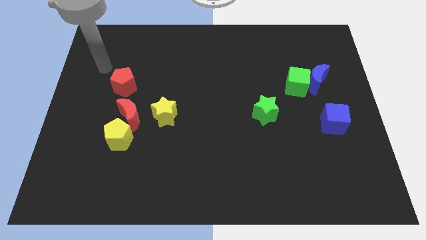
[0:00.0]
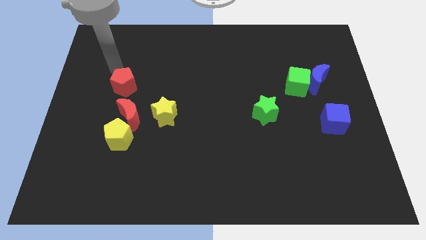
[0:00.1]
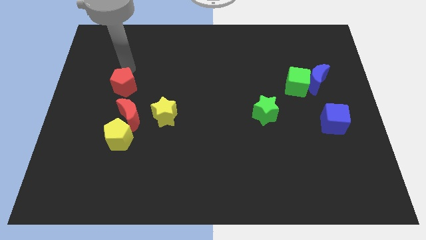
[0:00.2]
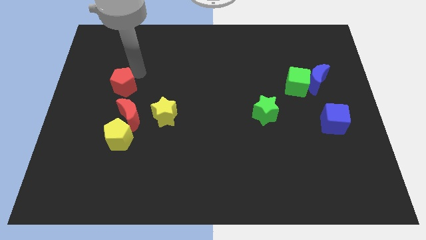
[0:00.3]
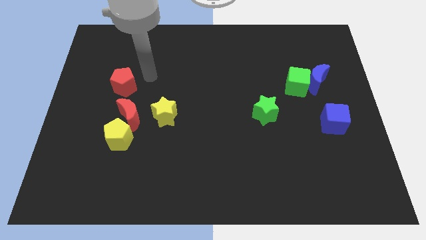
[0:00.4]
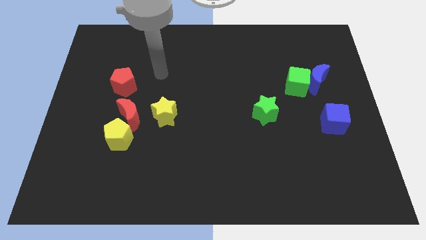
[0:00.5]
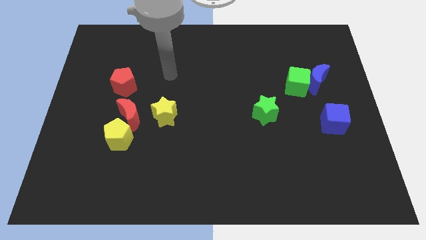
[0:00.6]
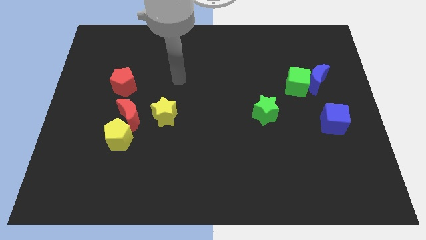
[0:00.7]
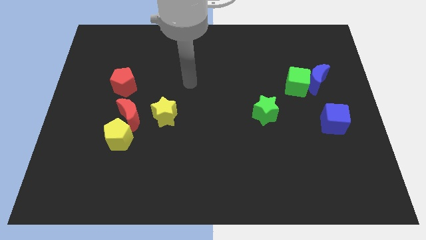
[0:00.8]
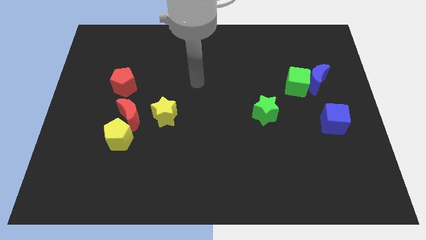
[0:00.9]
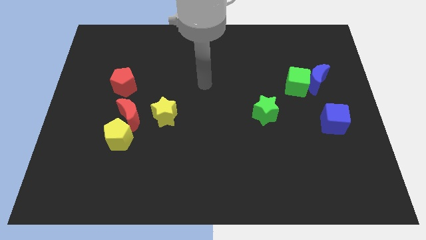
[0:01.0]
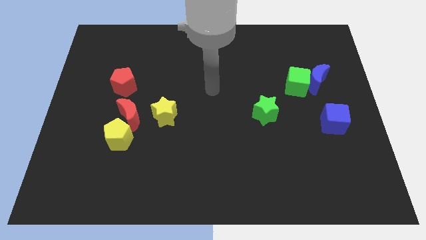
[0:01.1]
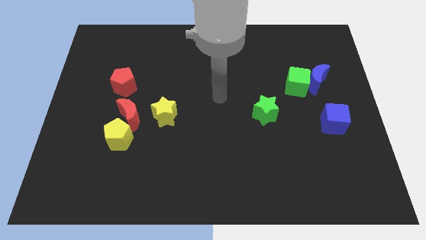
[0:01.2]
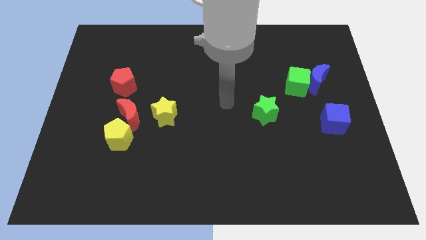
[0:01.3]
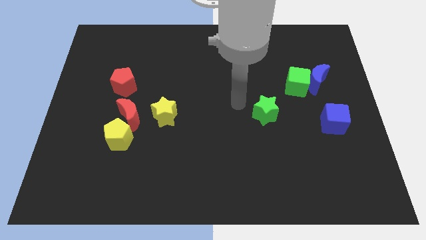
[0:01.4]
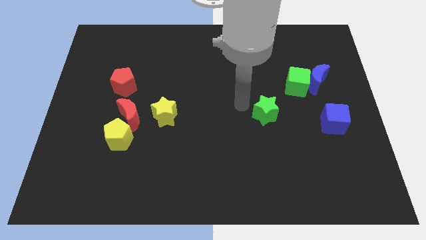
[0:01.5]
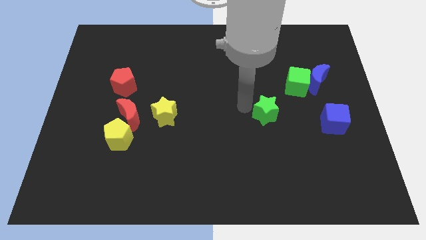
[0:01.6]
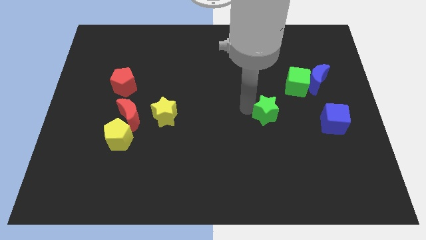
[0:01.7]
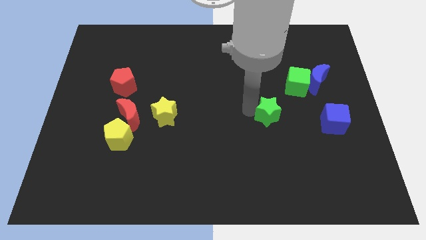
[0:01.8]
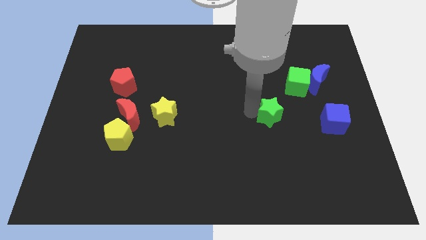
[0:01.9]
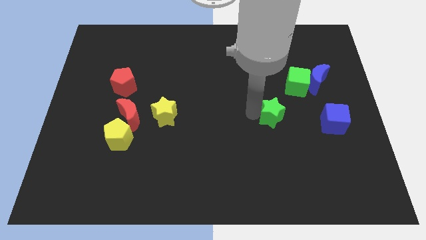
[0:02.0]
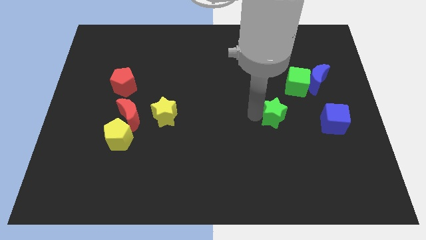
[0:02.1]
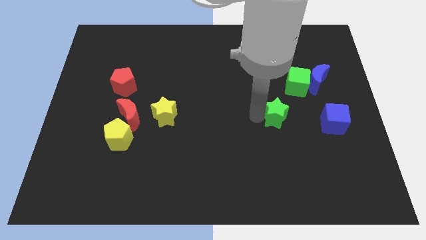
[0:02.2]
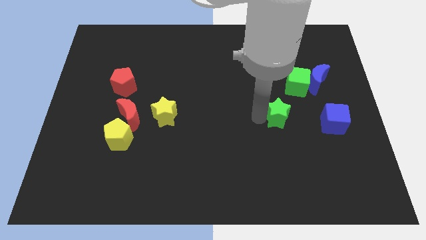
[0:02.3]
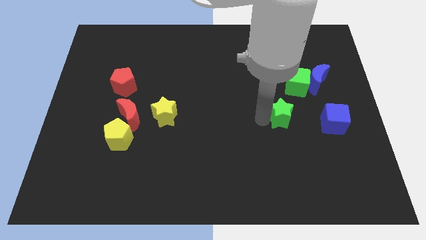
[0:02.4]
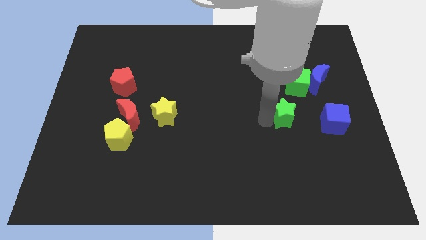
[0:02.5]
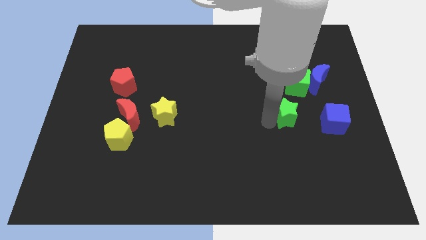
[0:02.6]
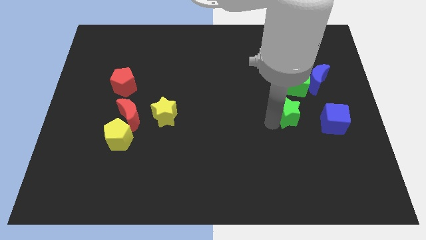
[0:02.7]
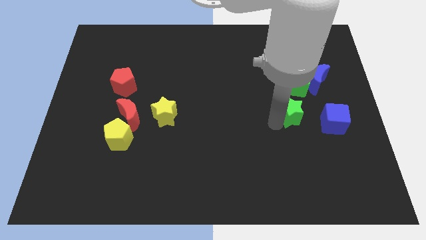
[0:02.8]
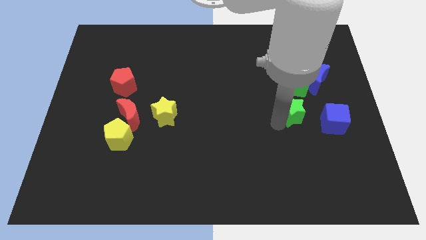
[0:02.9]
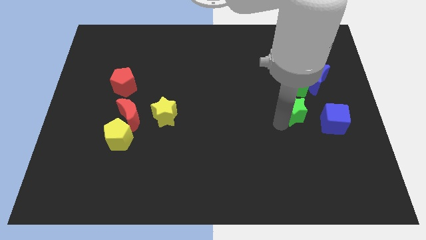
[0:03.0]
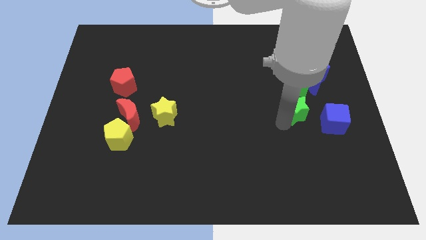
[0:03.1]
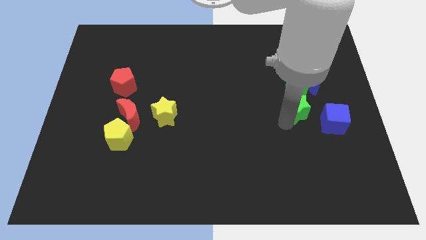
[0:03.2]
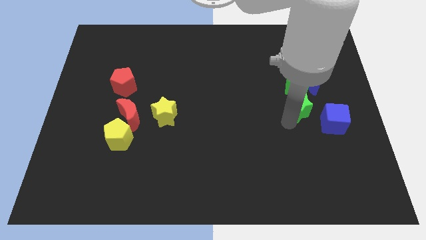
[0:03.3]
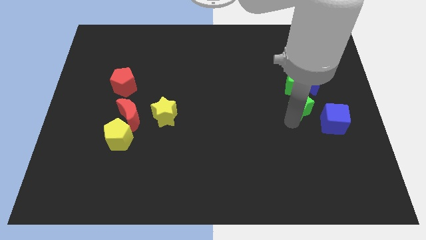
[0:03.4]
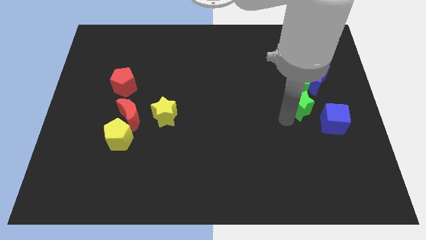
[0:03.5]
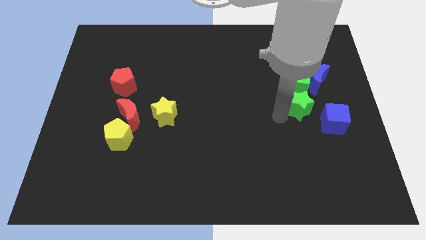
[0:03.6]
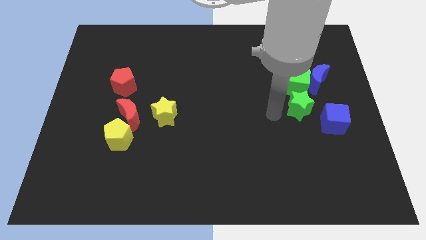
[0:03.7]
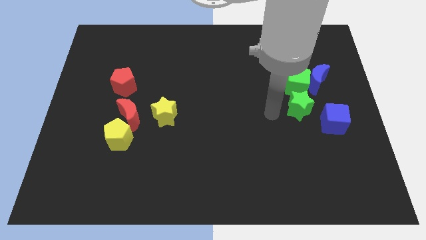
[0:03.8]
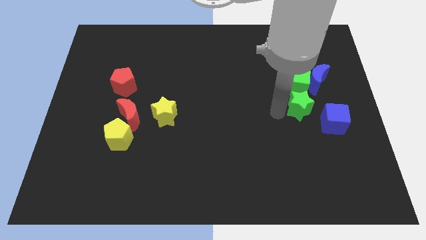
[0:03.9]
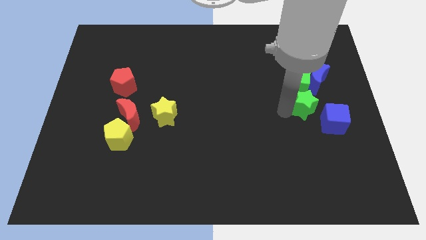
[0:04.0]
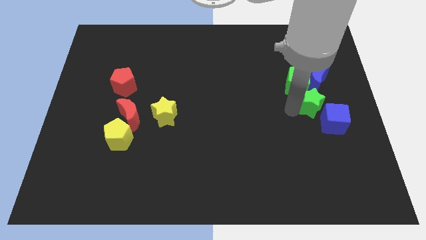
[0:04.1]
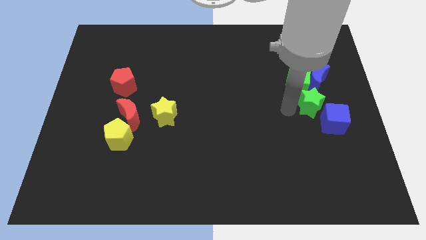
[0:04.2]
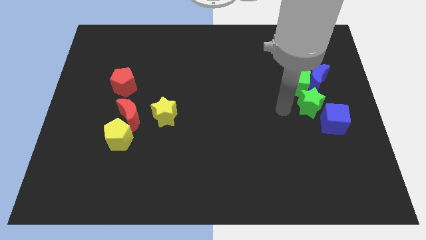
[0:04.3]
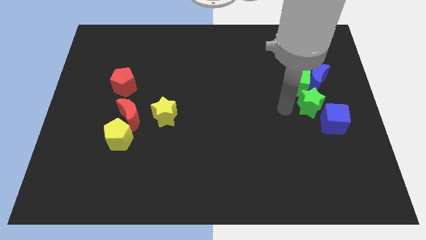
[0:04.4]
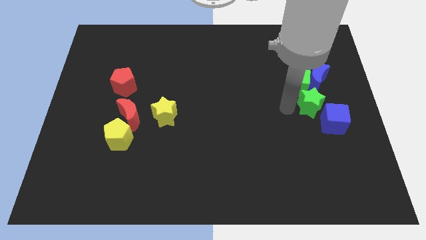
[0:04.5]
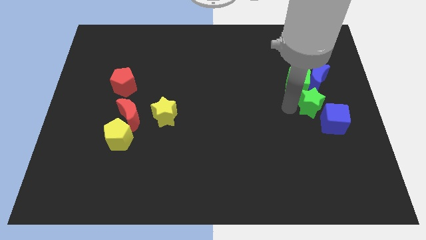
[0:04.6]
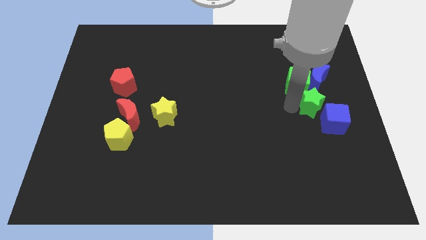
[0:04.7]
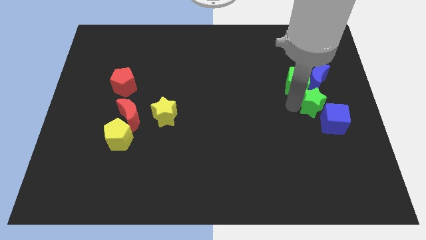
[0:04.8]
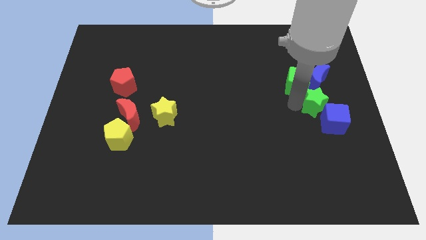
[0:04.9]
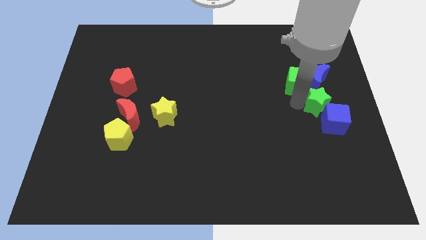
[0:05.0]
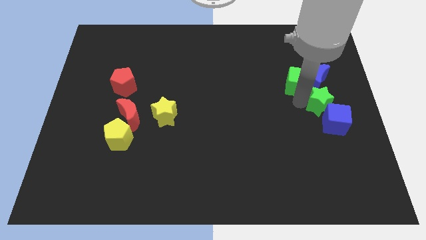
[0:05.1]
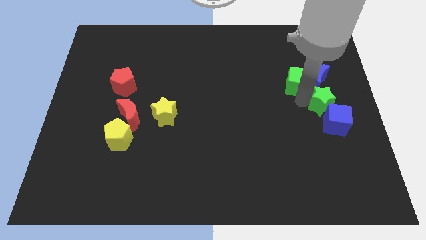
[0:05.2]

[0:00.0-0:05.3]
put the green star to the right side

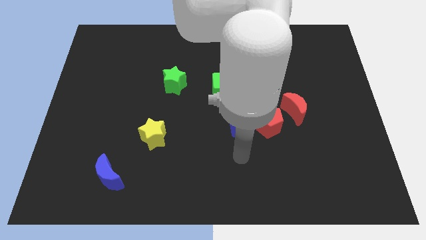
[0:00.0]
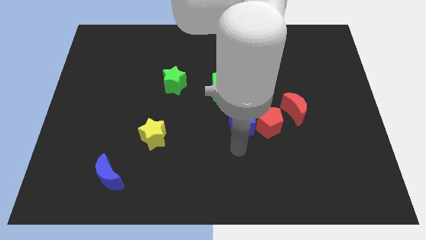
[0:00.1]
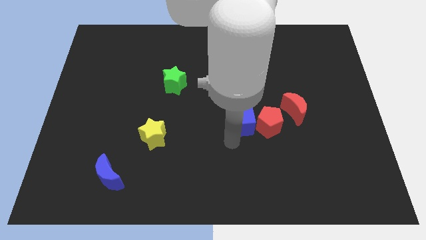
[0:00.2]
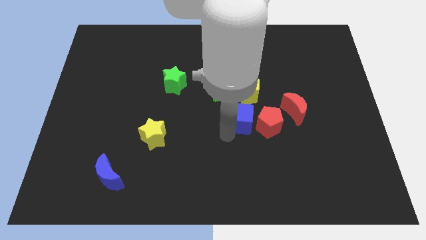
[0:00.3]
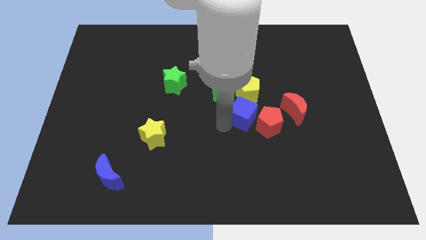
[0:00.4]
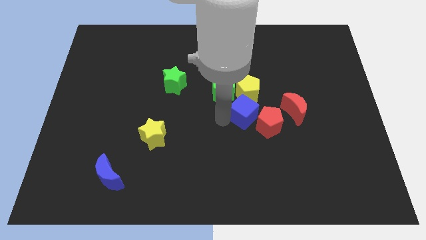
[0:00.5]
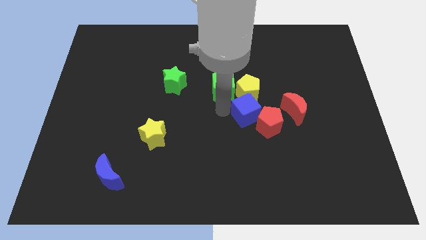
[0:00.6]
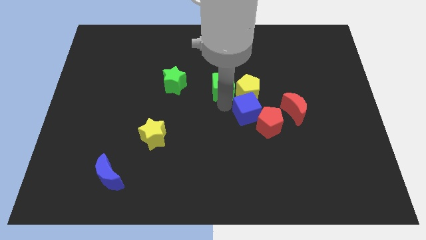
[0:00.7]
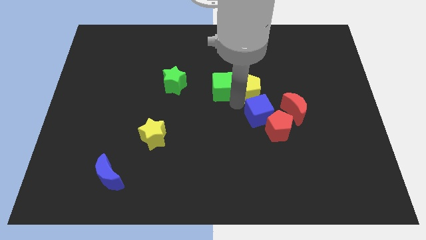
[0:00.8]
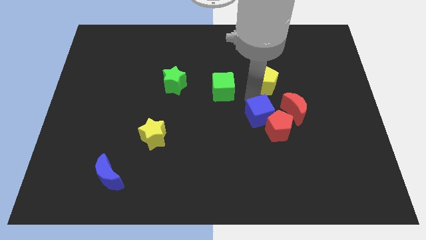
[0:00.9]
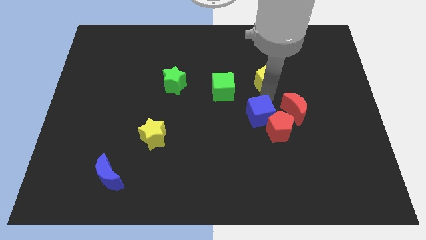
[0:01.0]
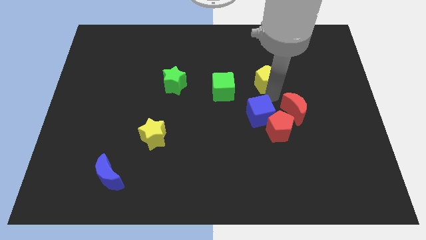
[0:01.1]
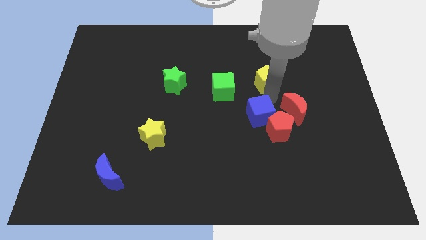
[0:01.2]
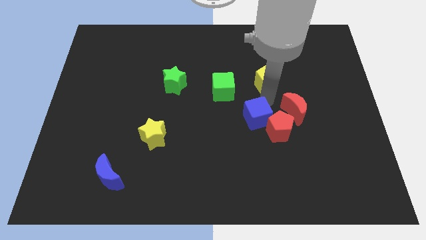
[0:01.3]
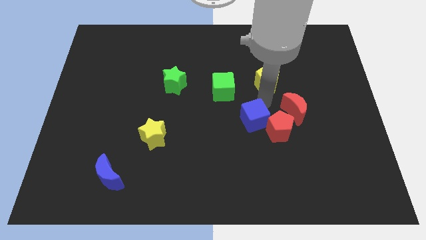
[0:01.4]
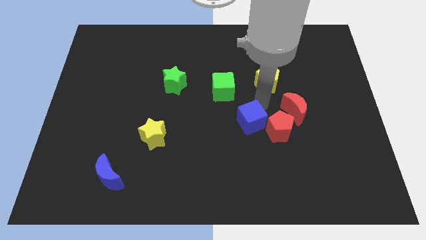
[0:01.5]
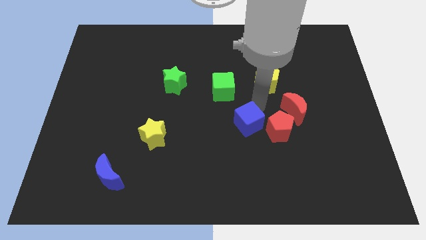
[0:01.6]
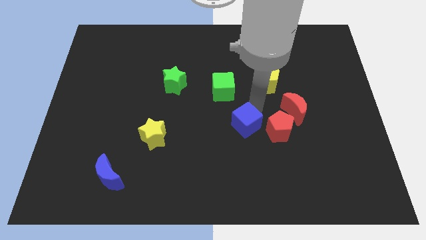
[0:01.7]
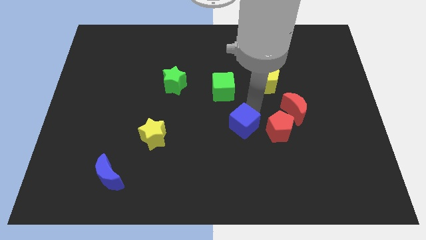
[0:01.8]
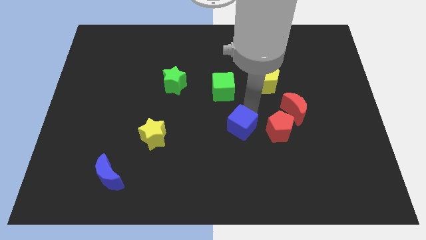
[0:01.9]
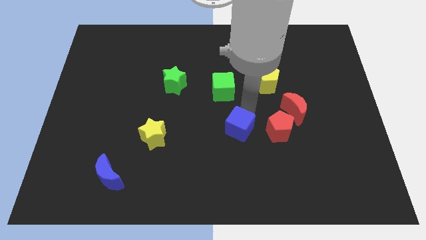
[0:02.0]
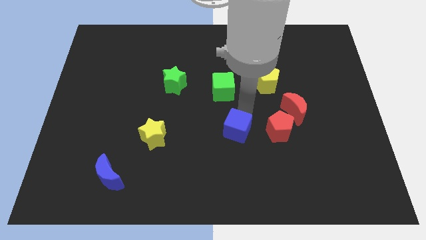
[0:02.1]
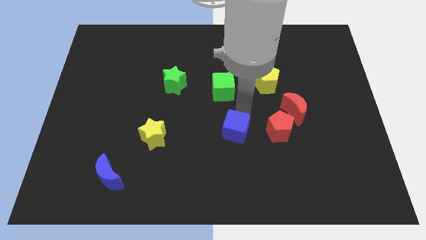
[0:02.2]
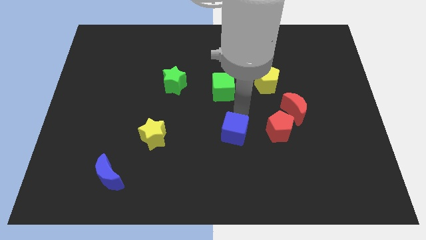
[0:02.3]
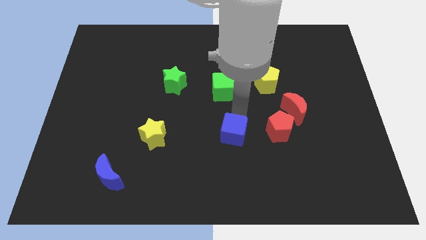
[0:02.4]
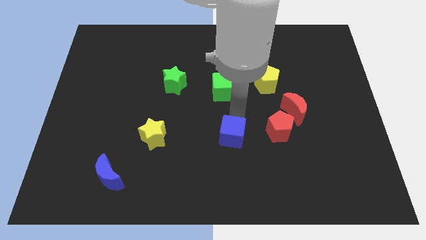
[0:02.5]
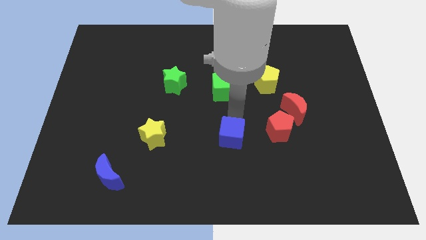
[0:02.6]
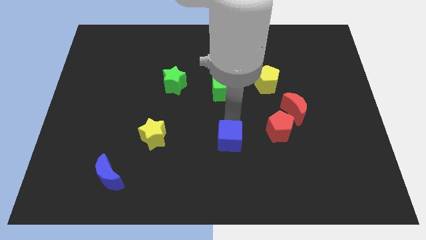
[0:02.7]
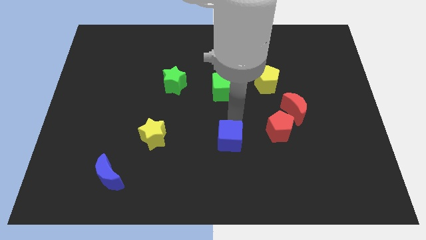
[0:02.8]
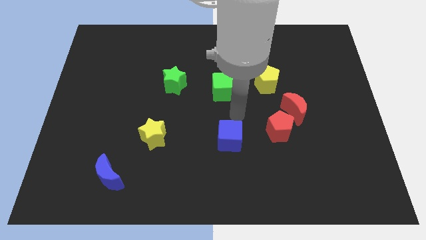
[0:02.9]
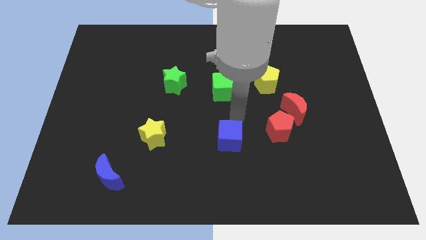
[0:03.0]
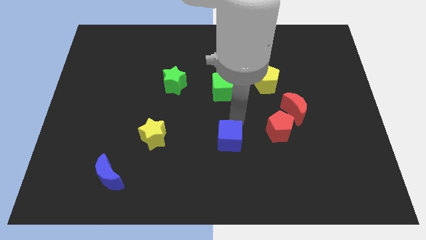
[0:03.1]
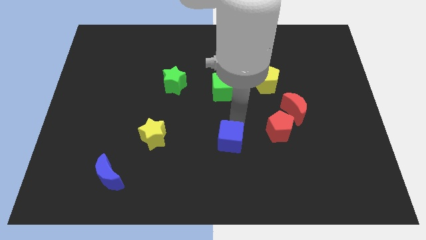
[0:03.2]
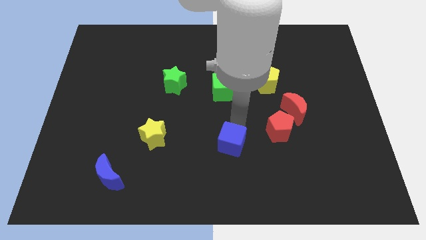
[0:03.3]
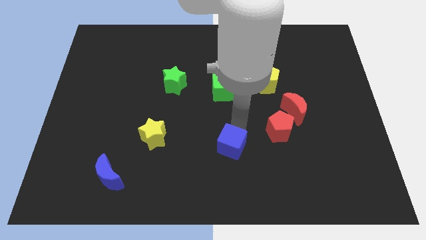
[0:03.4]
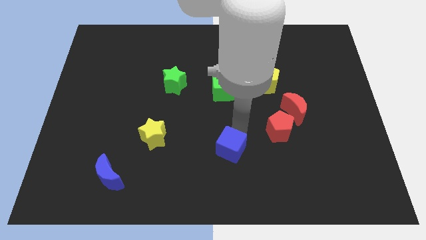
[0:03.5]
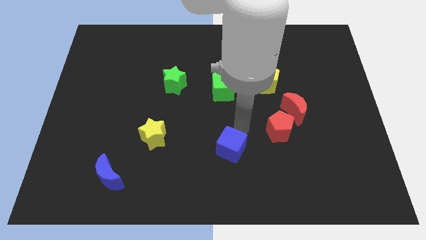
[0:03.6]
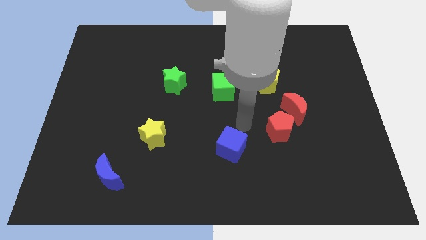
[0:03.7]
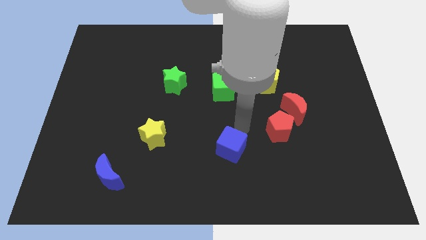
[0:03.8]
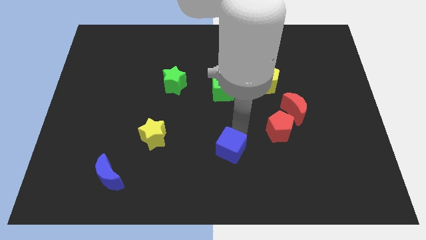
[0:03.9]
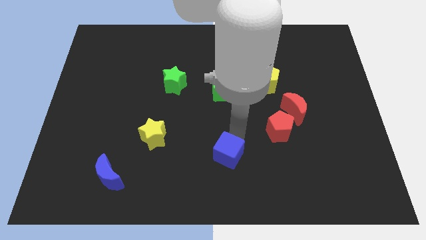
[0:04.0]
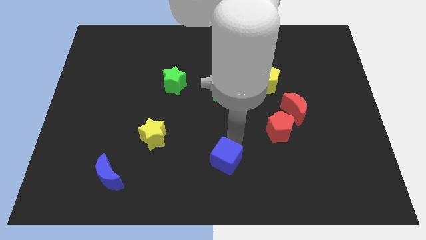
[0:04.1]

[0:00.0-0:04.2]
put the blue cube to the bottom side
